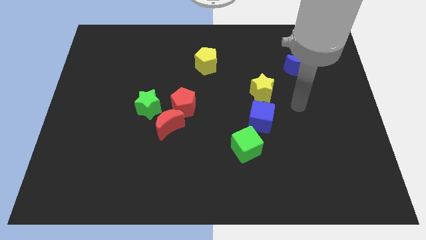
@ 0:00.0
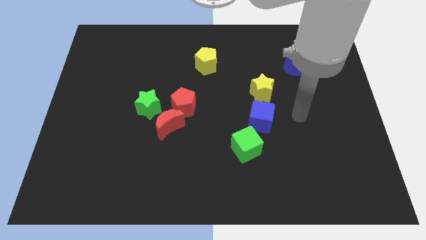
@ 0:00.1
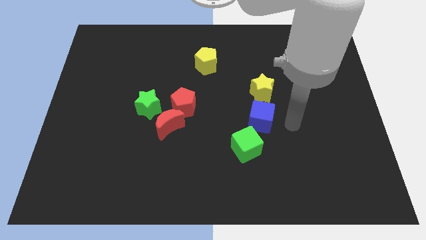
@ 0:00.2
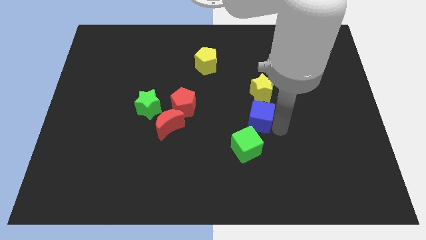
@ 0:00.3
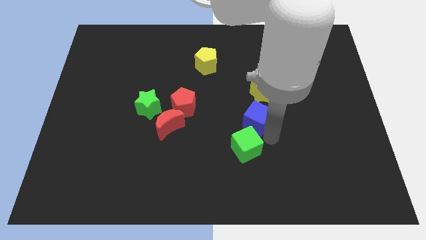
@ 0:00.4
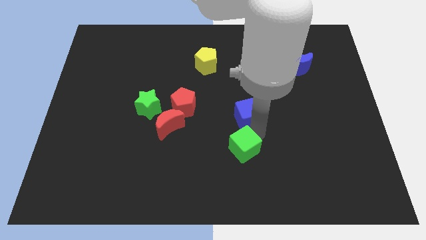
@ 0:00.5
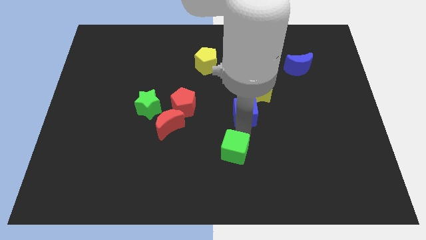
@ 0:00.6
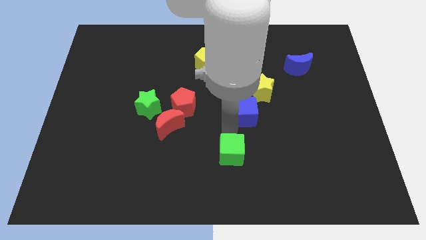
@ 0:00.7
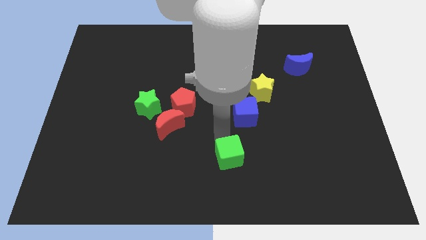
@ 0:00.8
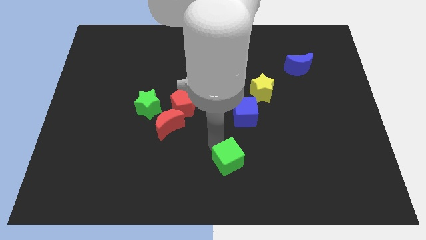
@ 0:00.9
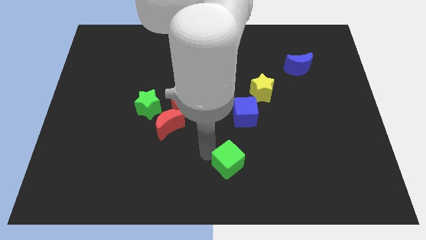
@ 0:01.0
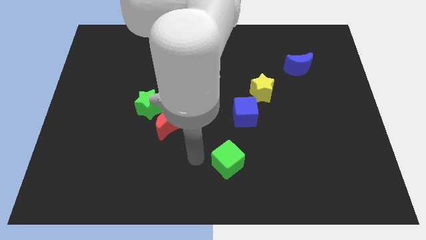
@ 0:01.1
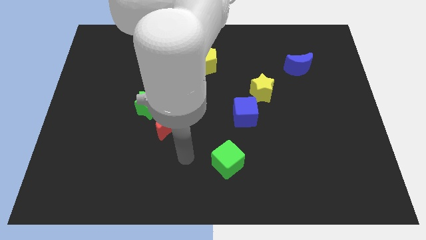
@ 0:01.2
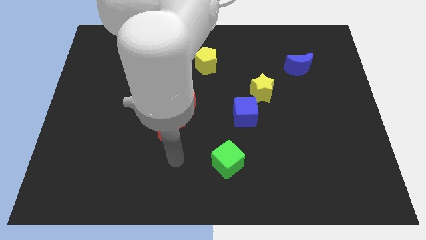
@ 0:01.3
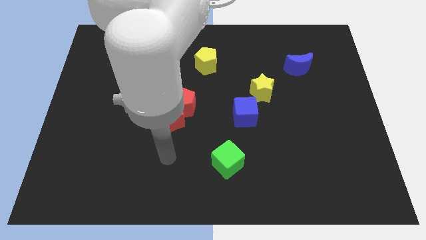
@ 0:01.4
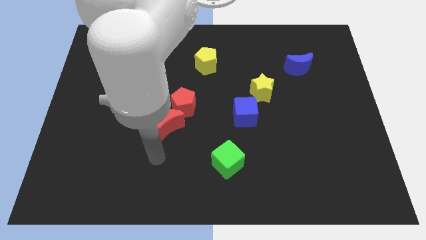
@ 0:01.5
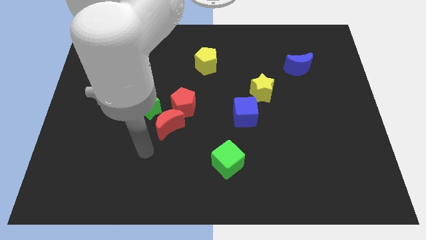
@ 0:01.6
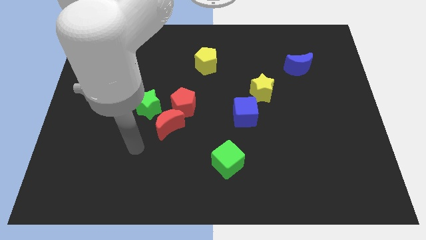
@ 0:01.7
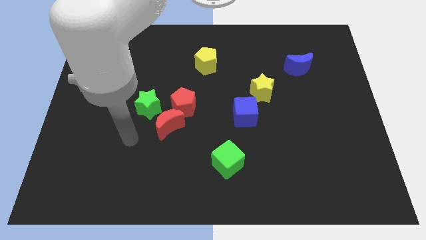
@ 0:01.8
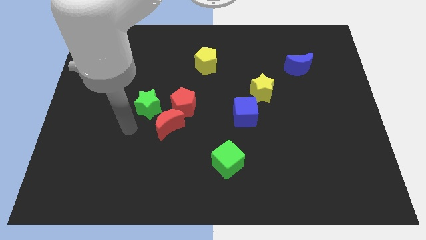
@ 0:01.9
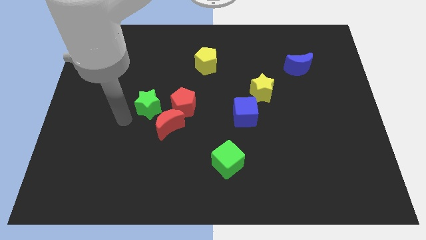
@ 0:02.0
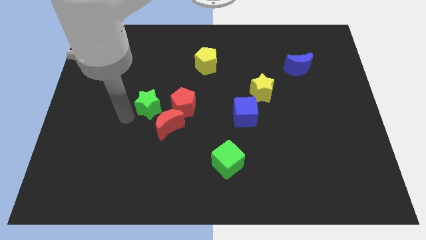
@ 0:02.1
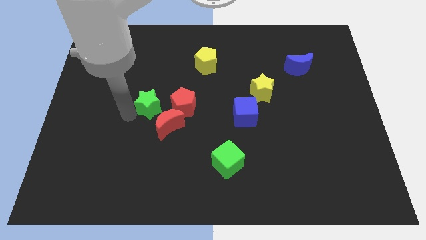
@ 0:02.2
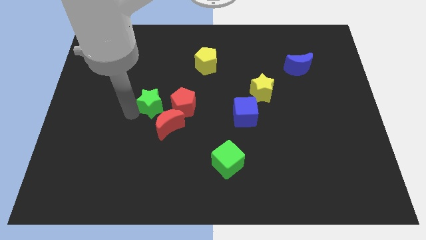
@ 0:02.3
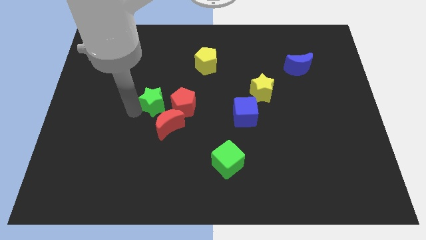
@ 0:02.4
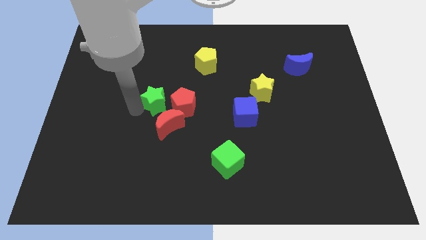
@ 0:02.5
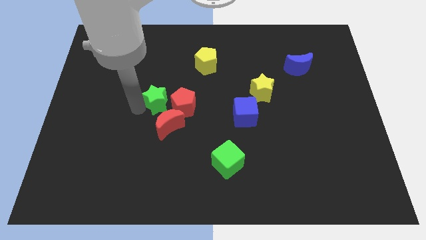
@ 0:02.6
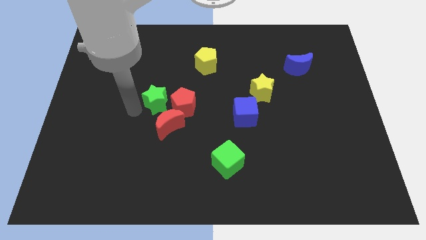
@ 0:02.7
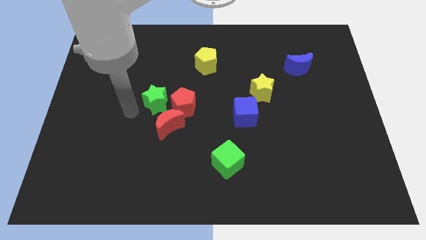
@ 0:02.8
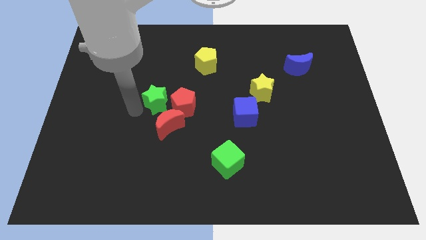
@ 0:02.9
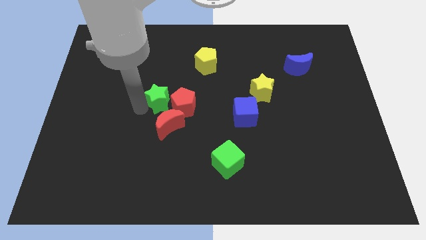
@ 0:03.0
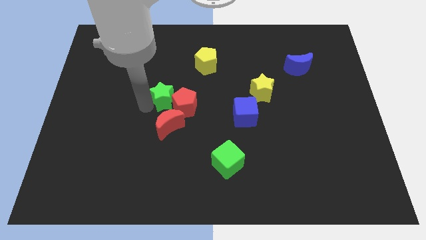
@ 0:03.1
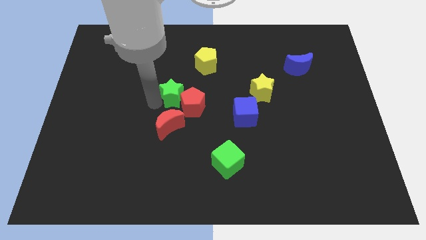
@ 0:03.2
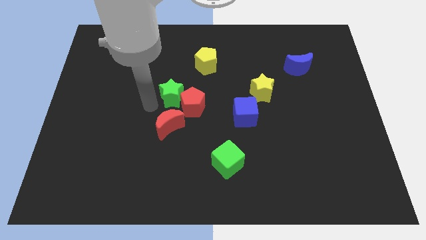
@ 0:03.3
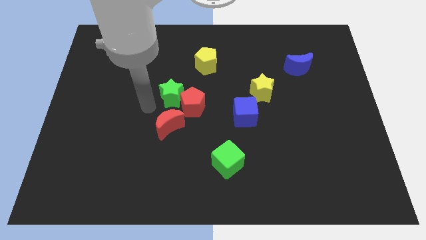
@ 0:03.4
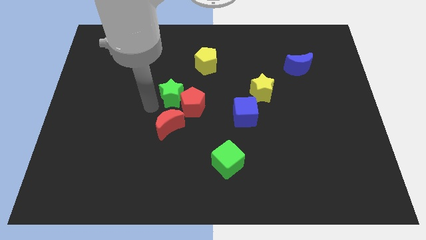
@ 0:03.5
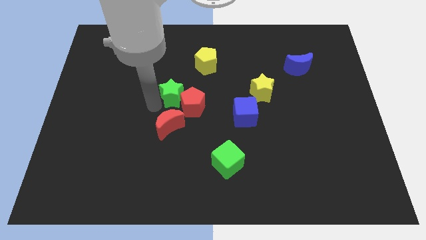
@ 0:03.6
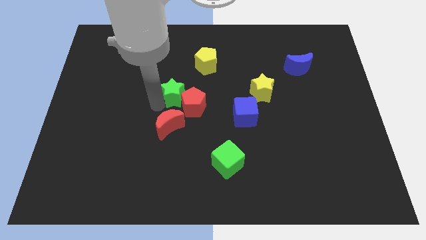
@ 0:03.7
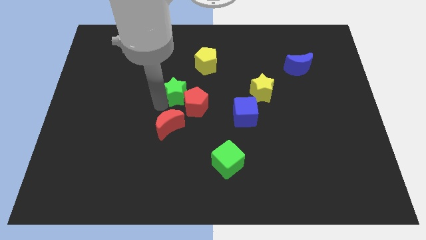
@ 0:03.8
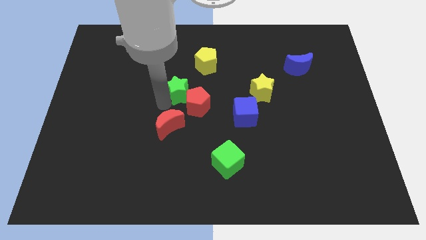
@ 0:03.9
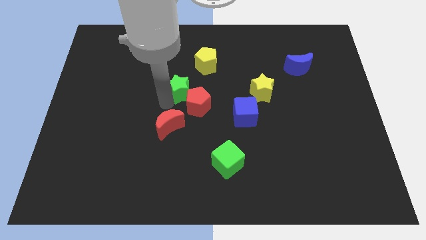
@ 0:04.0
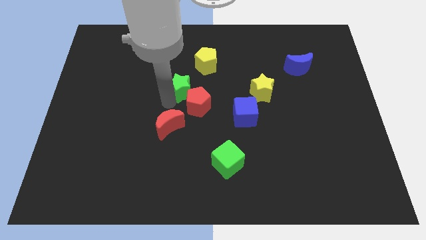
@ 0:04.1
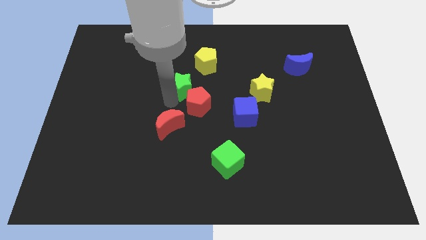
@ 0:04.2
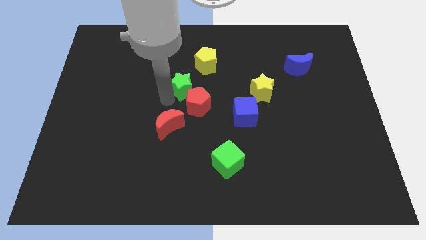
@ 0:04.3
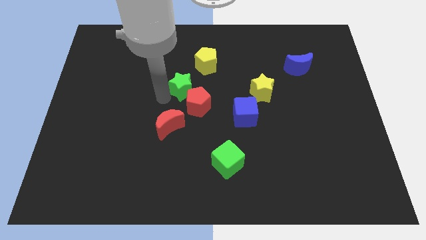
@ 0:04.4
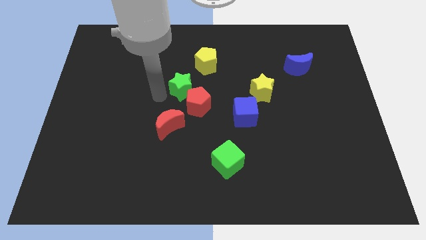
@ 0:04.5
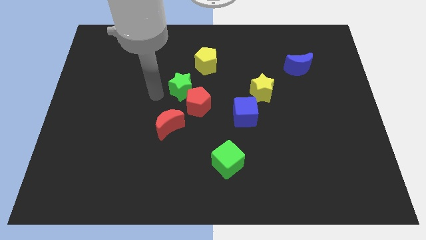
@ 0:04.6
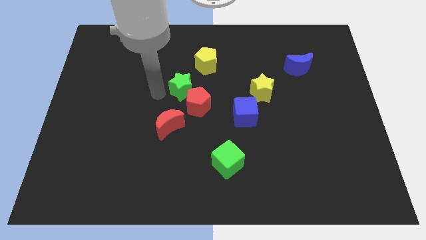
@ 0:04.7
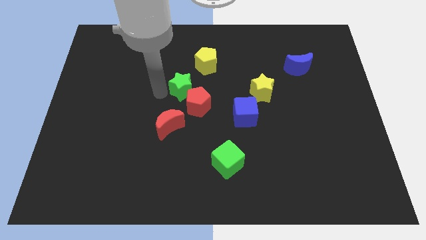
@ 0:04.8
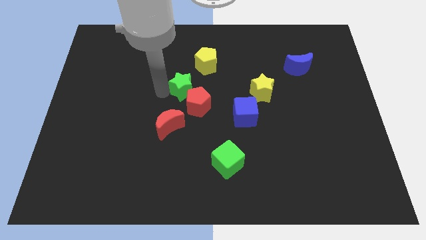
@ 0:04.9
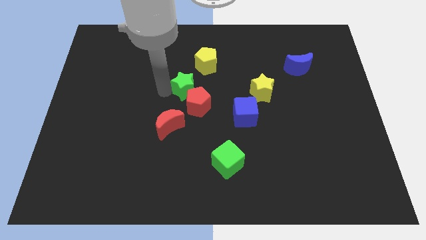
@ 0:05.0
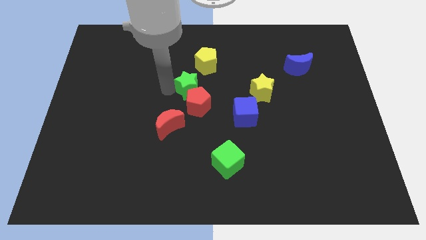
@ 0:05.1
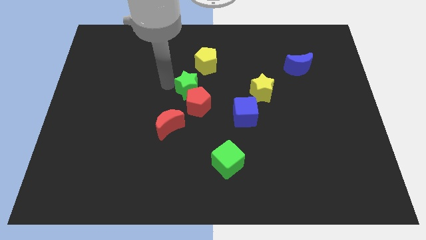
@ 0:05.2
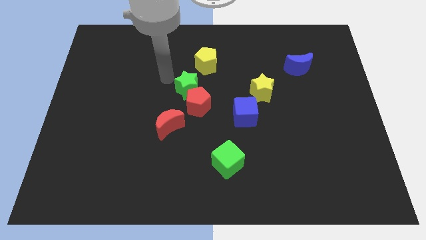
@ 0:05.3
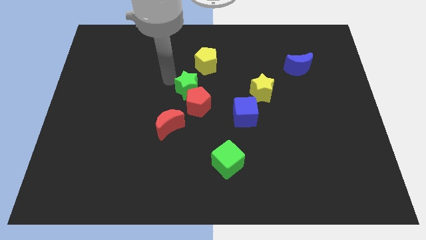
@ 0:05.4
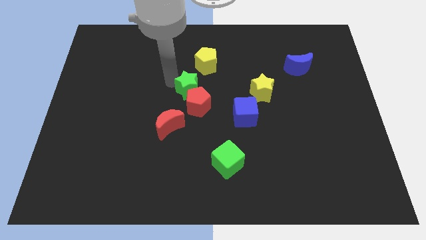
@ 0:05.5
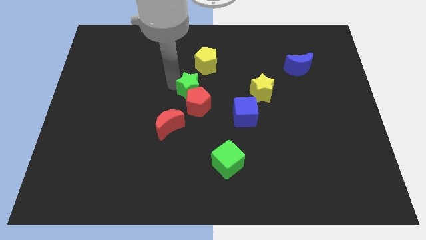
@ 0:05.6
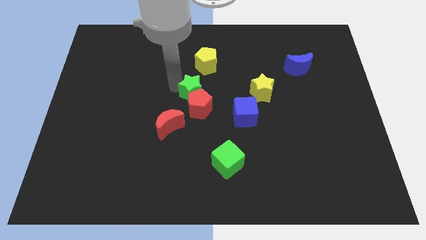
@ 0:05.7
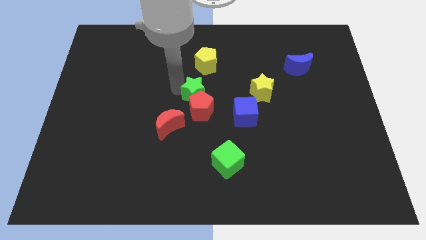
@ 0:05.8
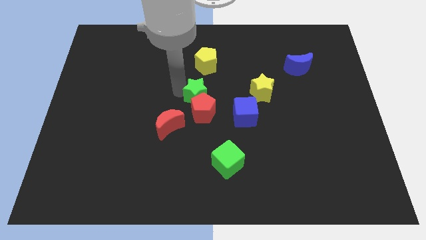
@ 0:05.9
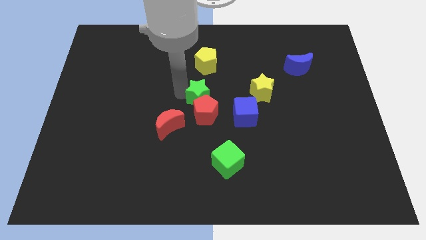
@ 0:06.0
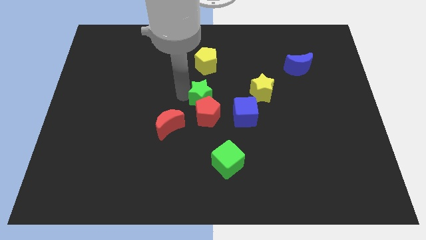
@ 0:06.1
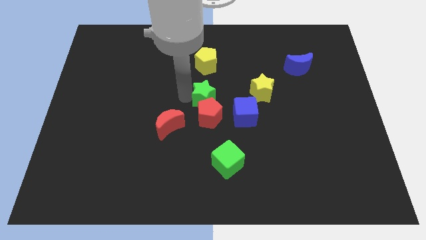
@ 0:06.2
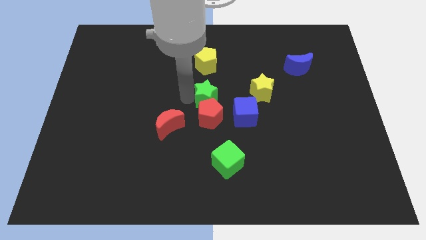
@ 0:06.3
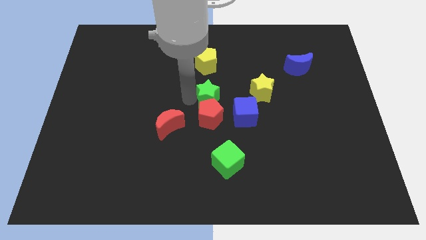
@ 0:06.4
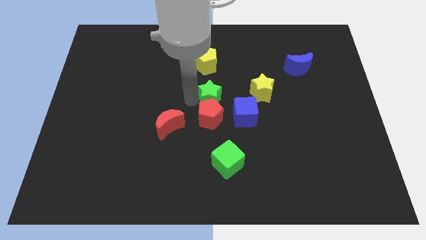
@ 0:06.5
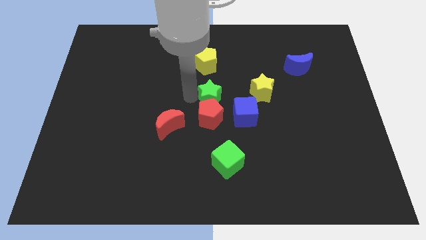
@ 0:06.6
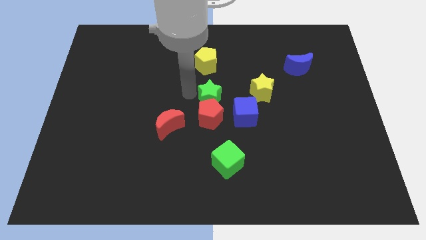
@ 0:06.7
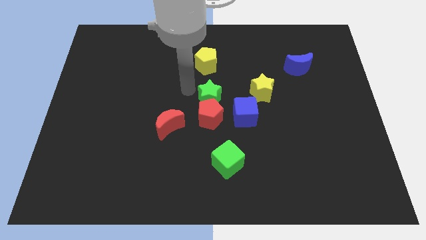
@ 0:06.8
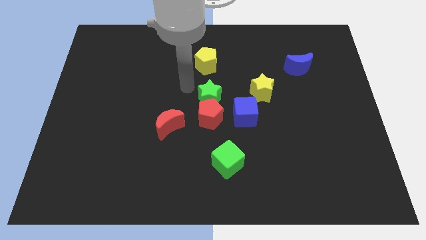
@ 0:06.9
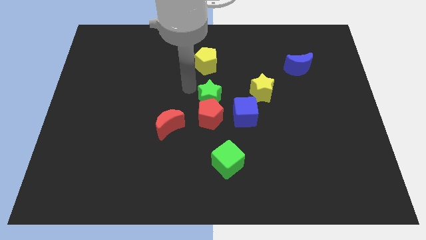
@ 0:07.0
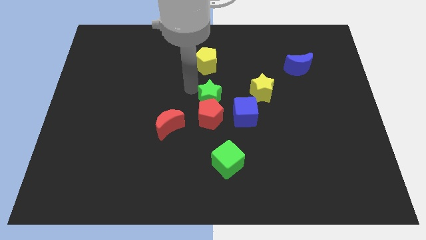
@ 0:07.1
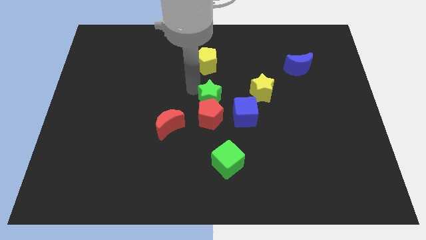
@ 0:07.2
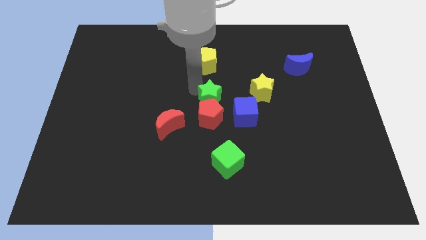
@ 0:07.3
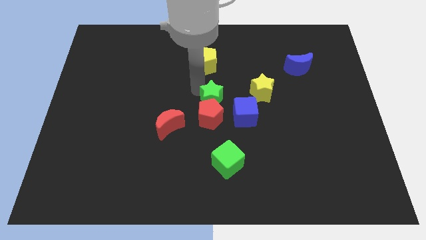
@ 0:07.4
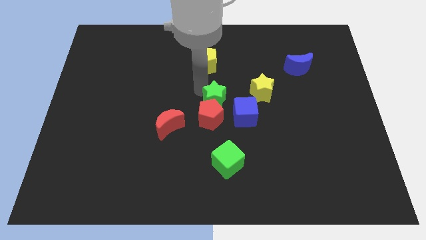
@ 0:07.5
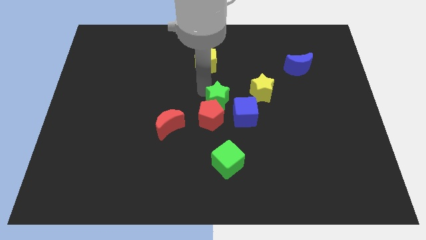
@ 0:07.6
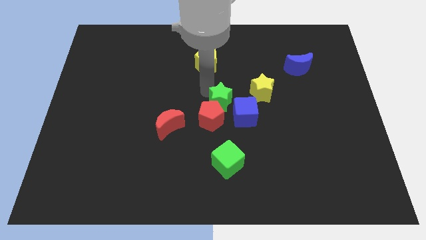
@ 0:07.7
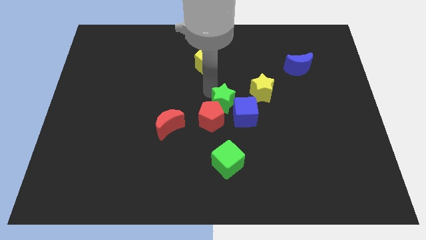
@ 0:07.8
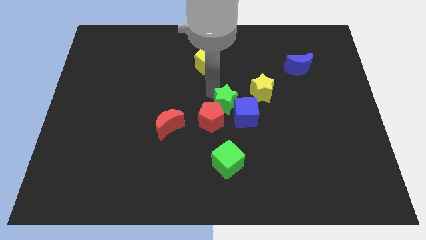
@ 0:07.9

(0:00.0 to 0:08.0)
slide the green star towards the blue cube

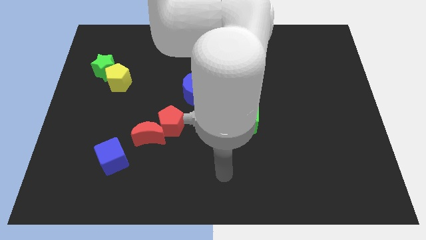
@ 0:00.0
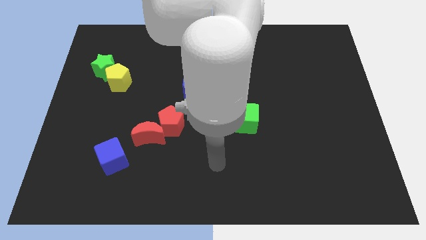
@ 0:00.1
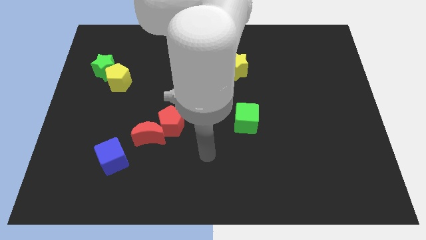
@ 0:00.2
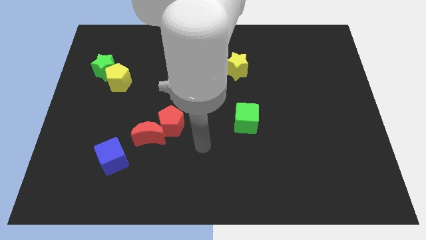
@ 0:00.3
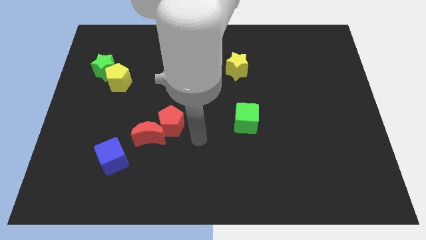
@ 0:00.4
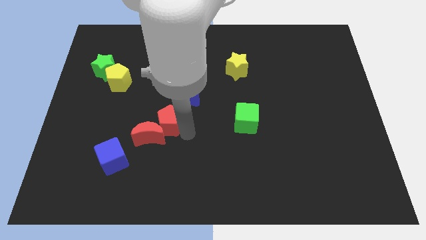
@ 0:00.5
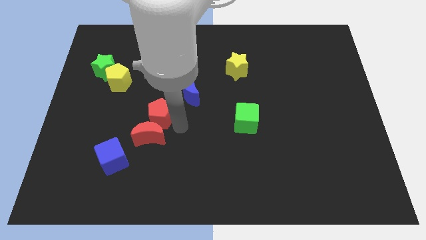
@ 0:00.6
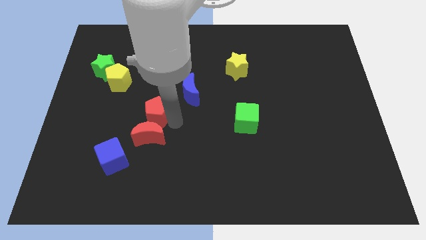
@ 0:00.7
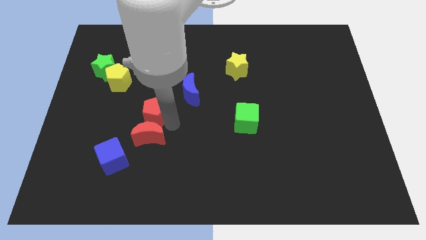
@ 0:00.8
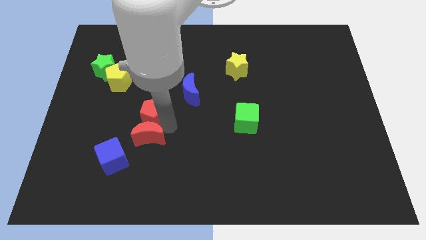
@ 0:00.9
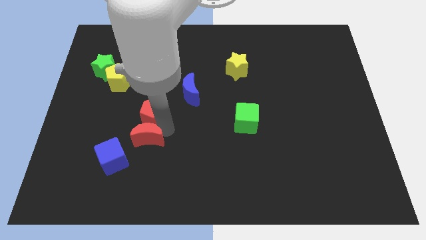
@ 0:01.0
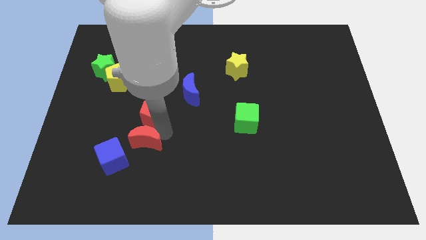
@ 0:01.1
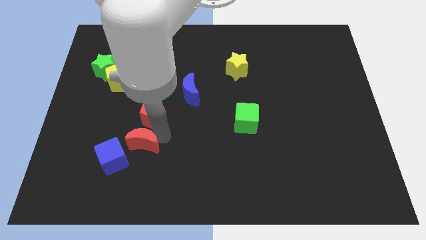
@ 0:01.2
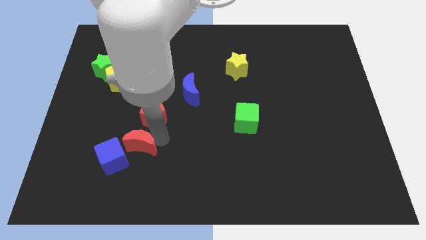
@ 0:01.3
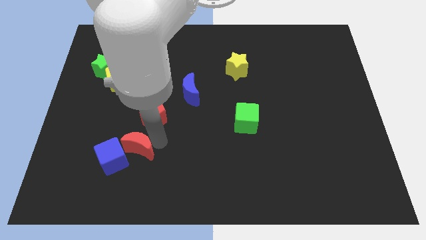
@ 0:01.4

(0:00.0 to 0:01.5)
push the red moon next to the blue cube
